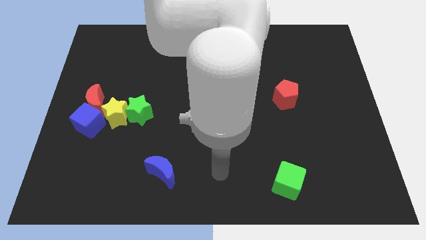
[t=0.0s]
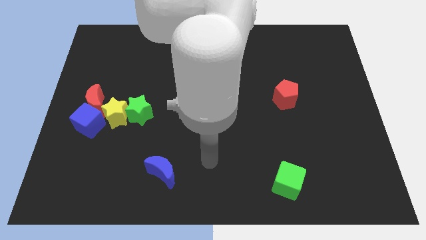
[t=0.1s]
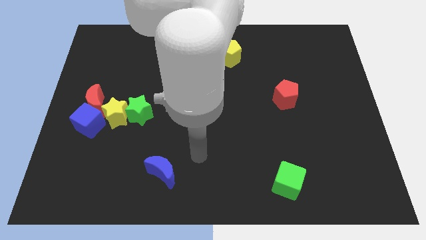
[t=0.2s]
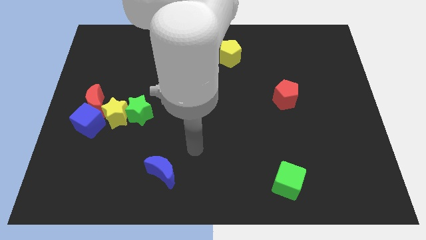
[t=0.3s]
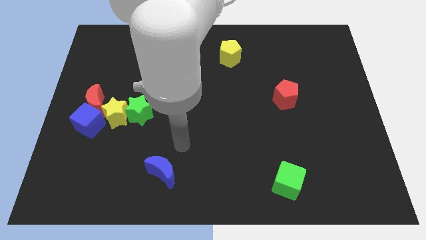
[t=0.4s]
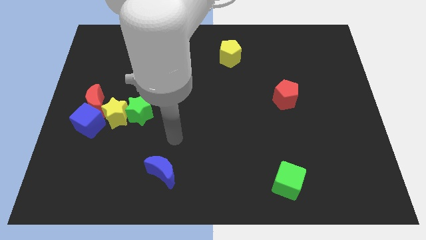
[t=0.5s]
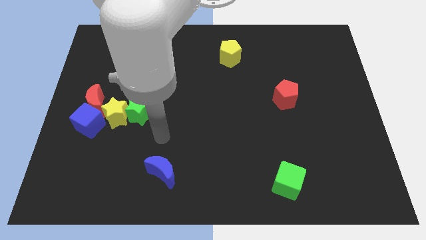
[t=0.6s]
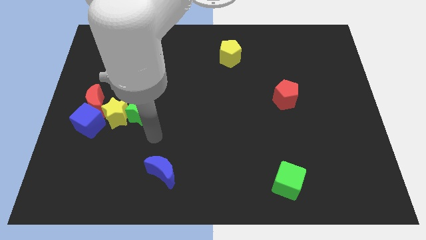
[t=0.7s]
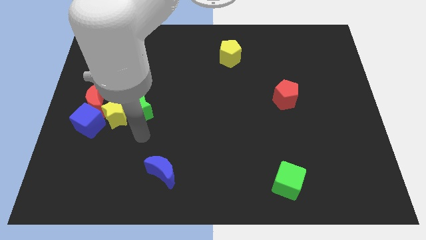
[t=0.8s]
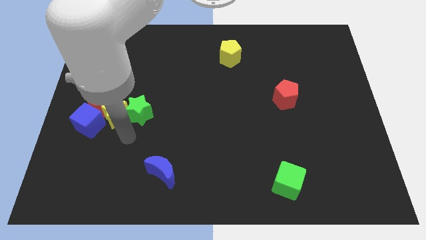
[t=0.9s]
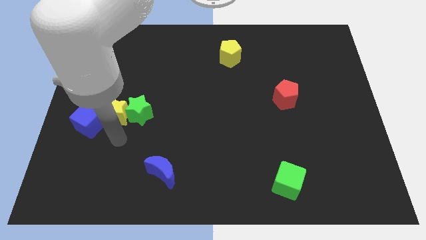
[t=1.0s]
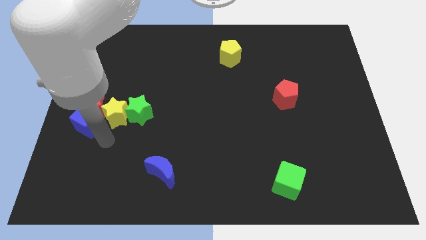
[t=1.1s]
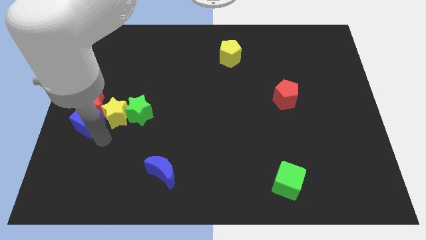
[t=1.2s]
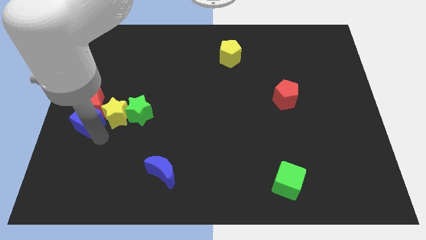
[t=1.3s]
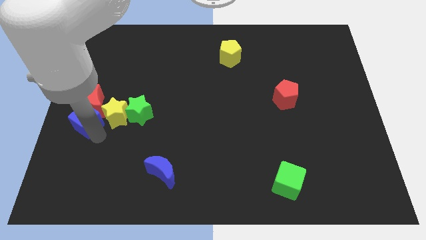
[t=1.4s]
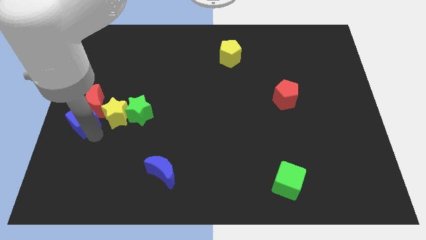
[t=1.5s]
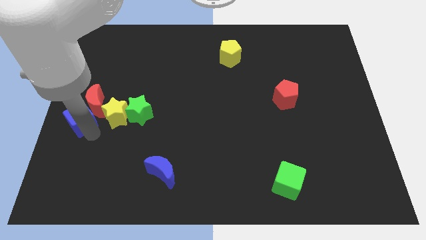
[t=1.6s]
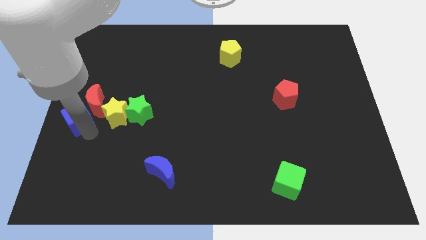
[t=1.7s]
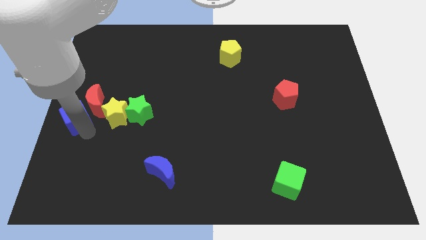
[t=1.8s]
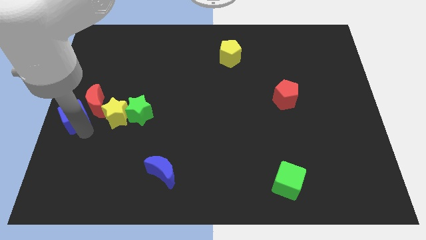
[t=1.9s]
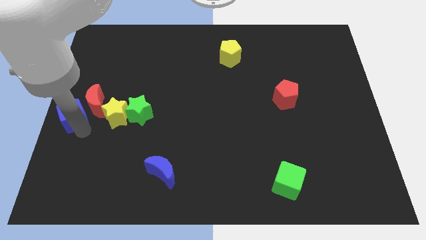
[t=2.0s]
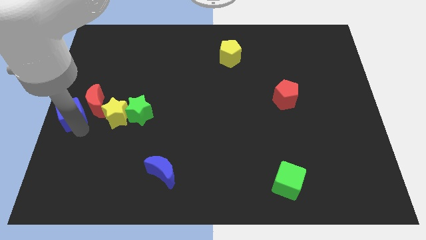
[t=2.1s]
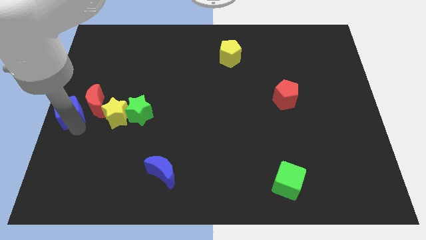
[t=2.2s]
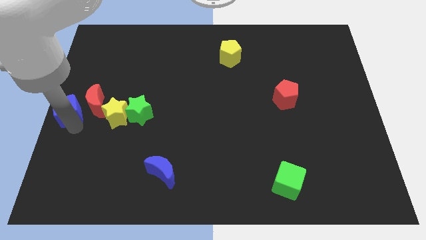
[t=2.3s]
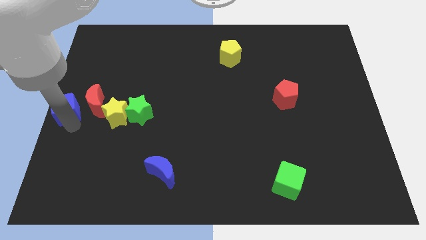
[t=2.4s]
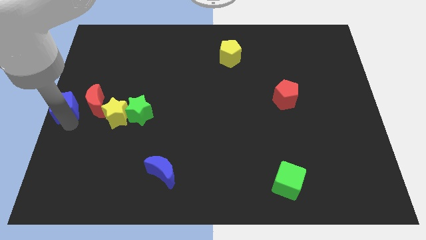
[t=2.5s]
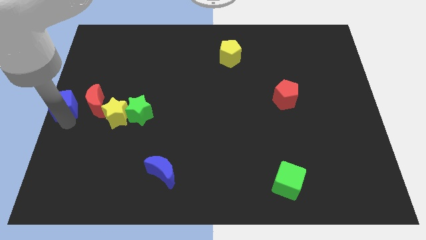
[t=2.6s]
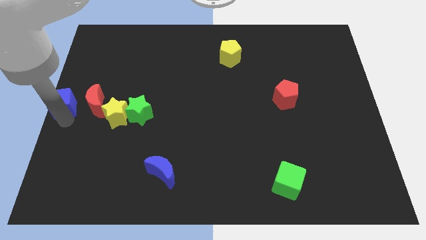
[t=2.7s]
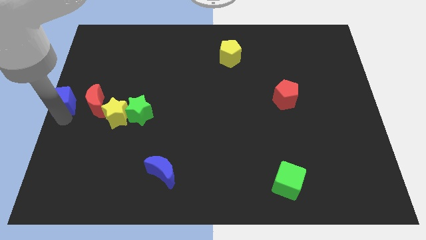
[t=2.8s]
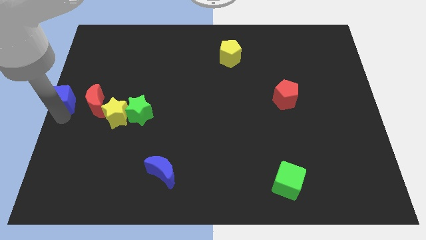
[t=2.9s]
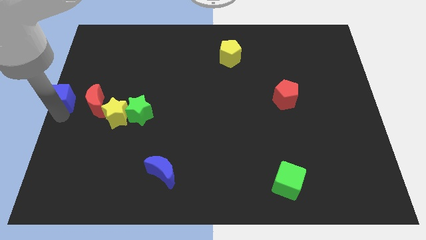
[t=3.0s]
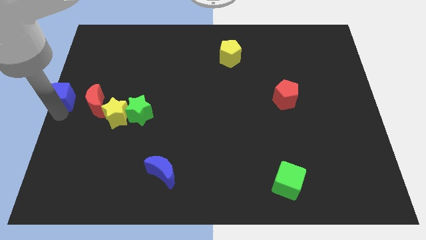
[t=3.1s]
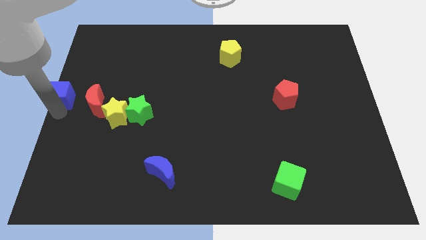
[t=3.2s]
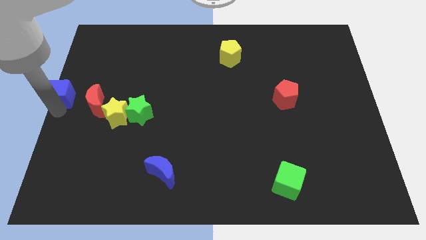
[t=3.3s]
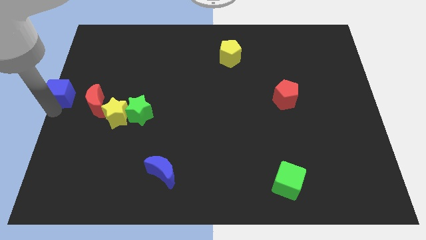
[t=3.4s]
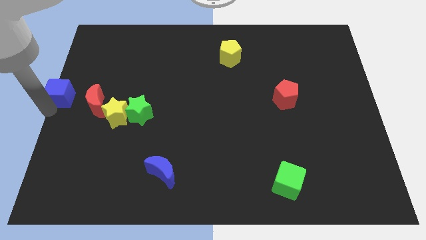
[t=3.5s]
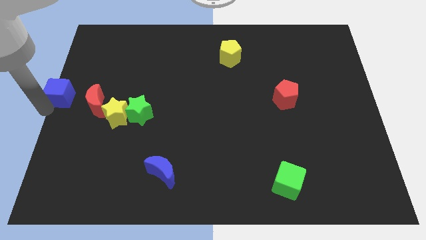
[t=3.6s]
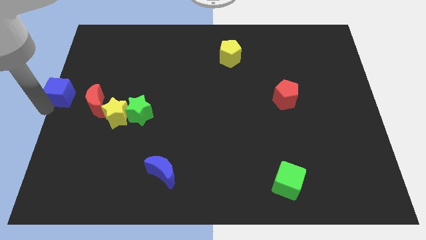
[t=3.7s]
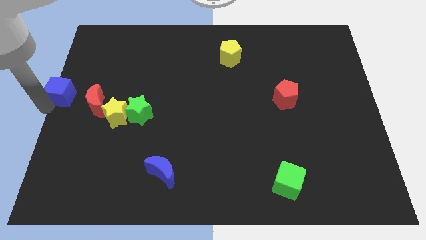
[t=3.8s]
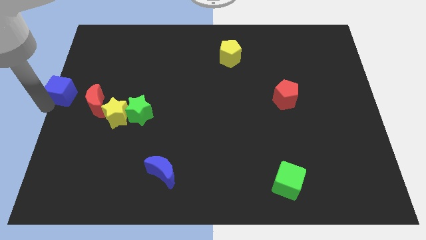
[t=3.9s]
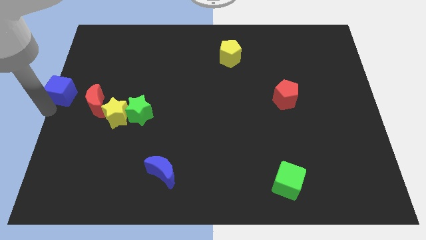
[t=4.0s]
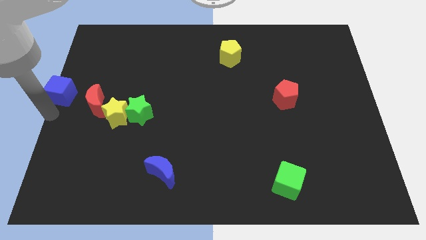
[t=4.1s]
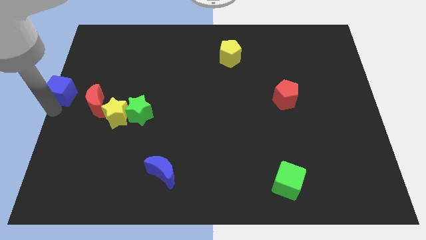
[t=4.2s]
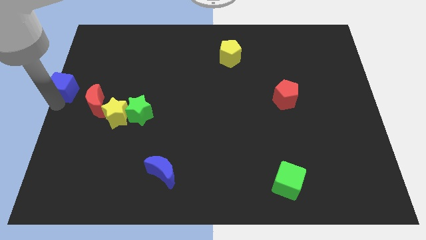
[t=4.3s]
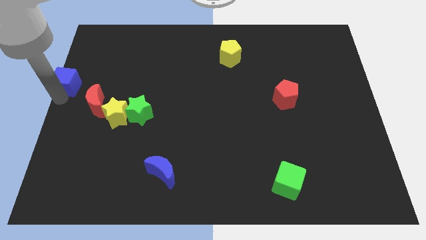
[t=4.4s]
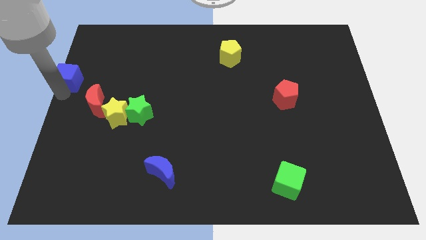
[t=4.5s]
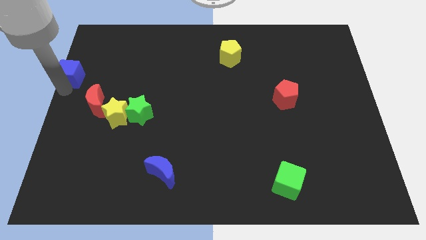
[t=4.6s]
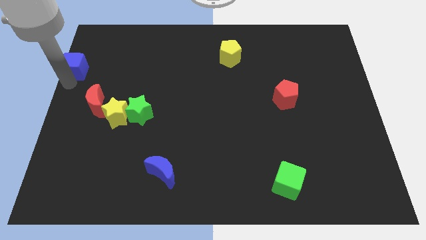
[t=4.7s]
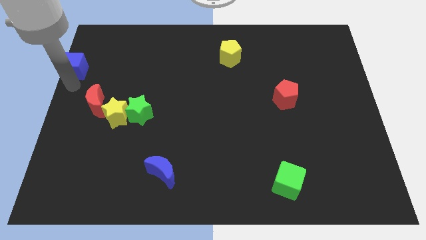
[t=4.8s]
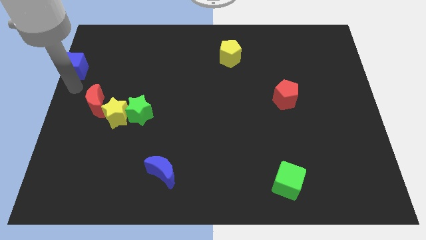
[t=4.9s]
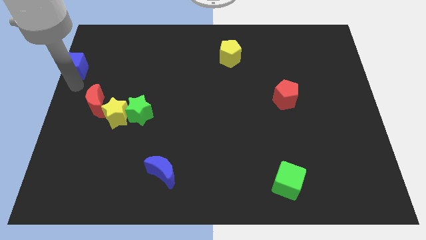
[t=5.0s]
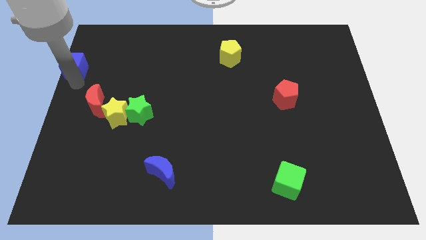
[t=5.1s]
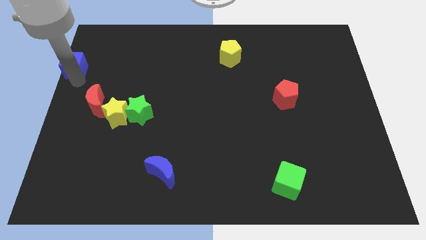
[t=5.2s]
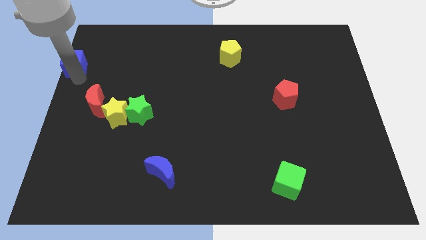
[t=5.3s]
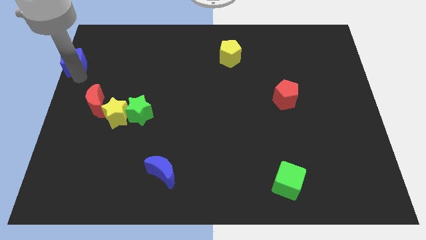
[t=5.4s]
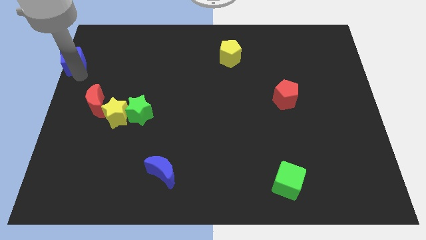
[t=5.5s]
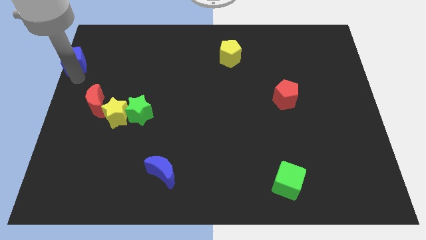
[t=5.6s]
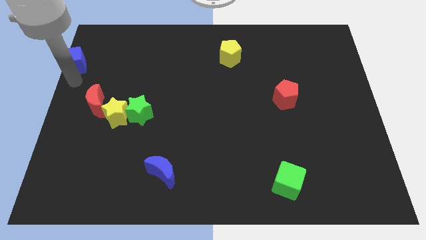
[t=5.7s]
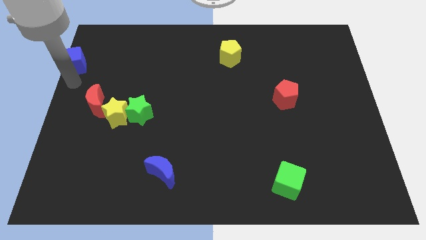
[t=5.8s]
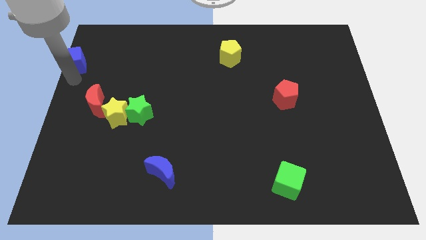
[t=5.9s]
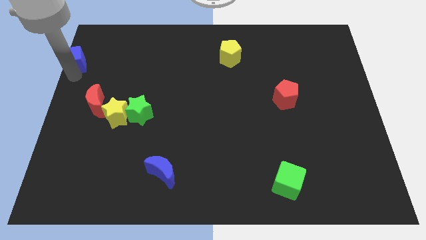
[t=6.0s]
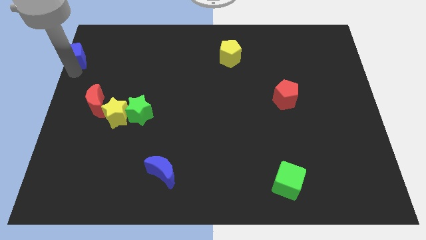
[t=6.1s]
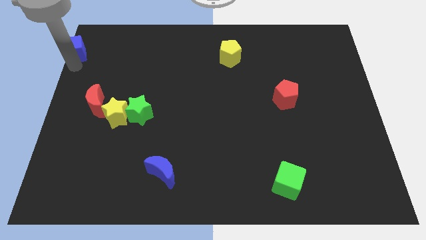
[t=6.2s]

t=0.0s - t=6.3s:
slide the blue cube to the upper left corner
